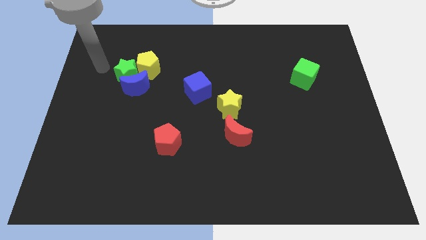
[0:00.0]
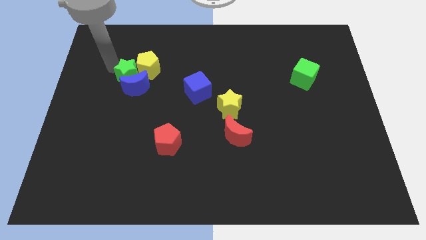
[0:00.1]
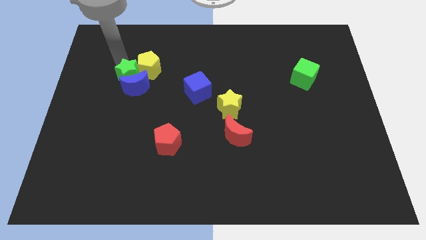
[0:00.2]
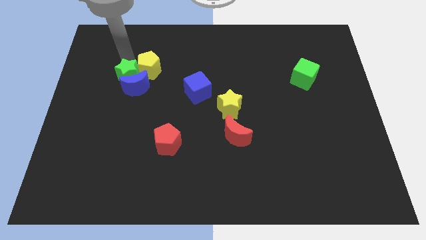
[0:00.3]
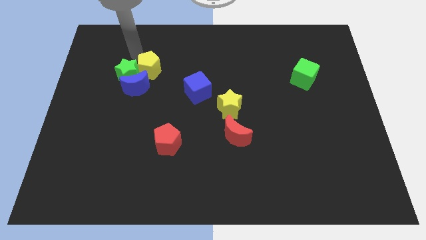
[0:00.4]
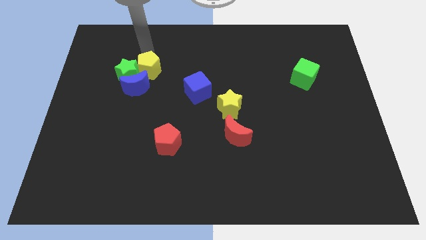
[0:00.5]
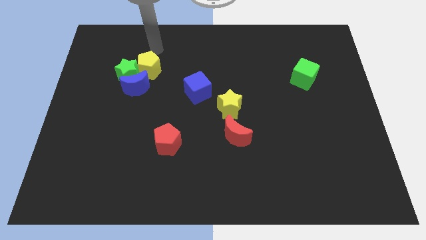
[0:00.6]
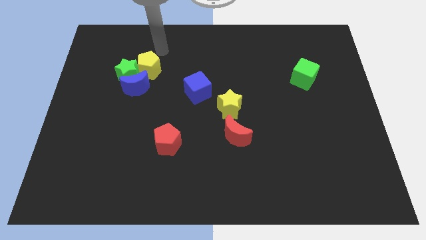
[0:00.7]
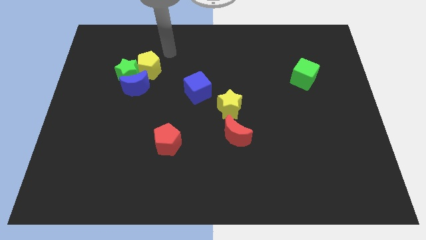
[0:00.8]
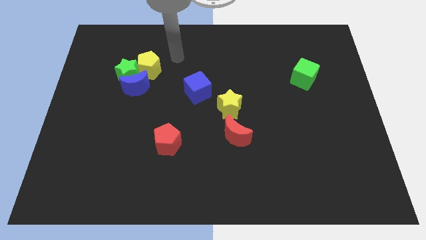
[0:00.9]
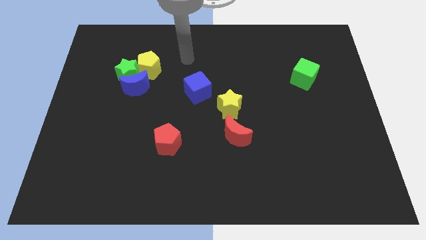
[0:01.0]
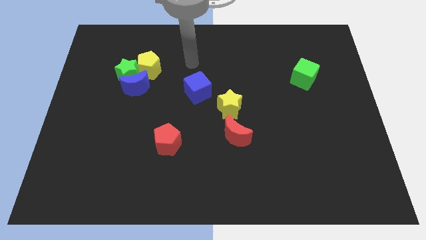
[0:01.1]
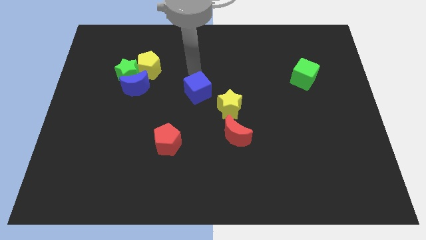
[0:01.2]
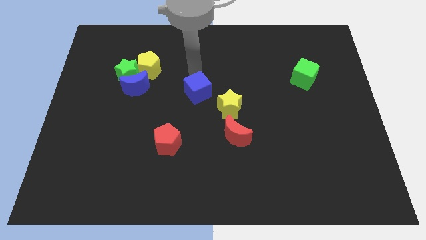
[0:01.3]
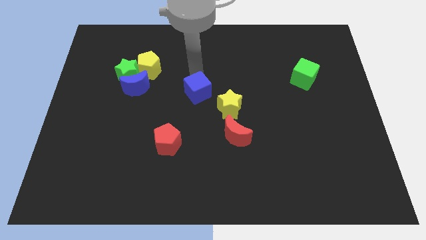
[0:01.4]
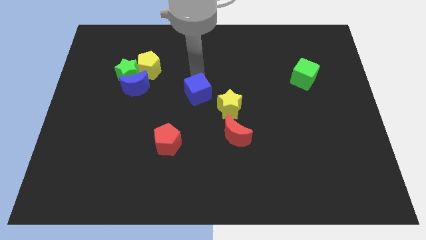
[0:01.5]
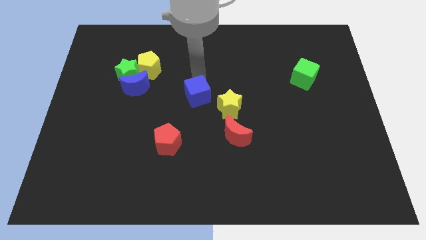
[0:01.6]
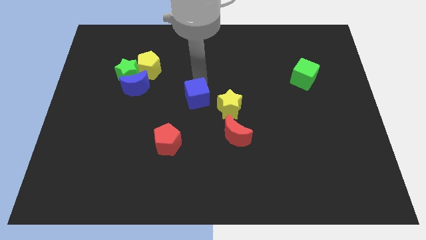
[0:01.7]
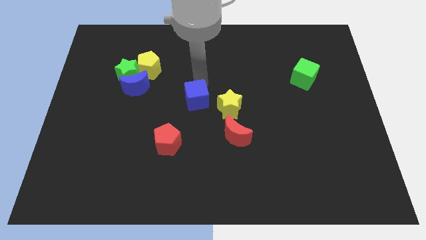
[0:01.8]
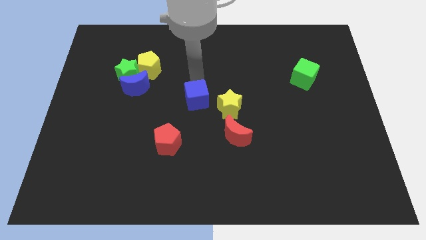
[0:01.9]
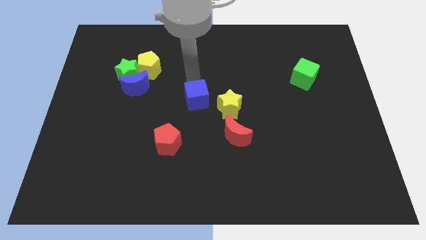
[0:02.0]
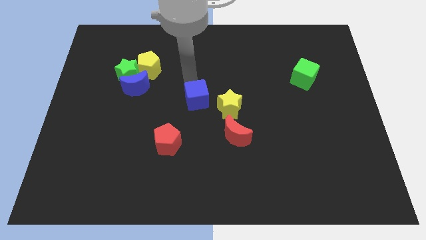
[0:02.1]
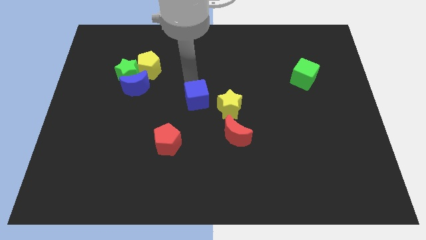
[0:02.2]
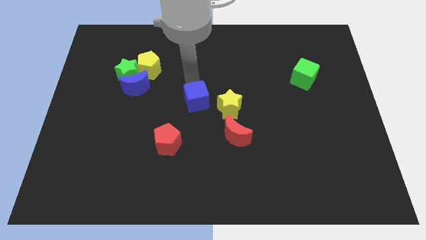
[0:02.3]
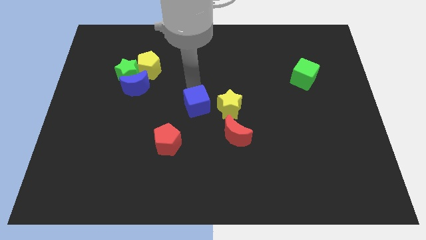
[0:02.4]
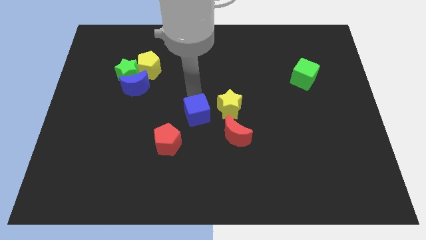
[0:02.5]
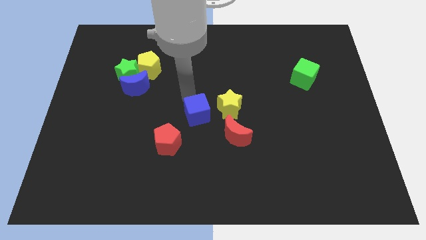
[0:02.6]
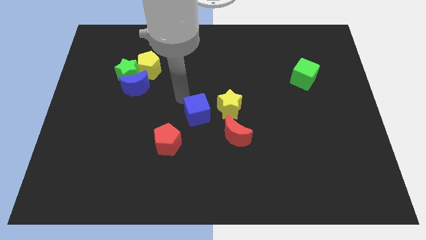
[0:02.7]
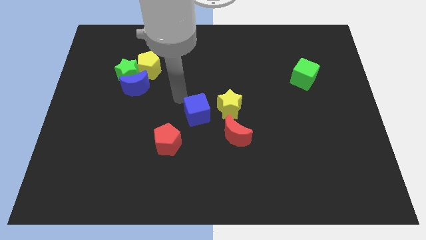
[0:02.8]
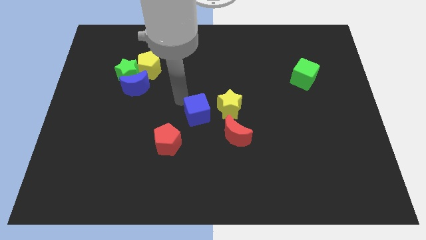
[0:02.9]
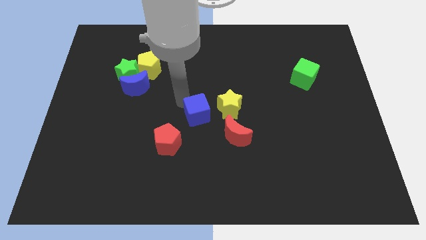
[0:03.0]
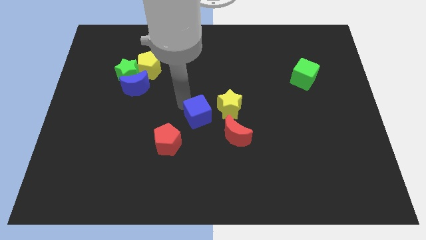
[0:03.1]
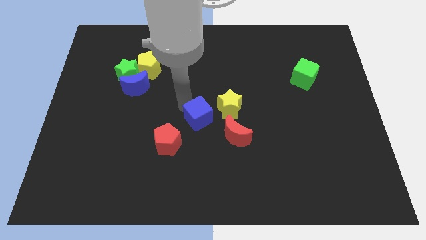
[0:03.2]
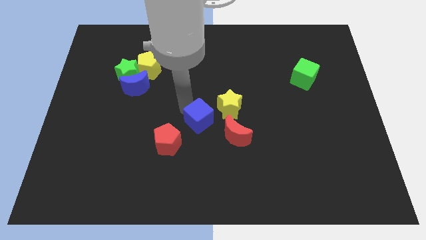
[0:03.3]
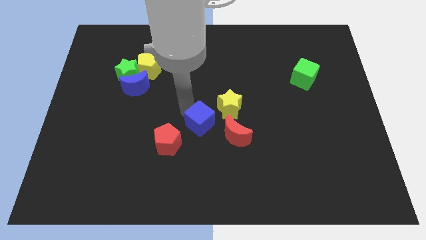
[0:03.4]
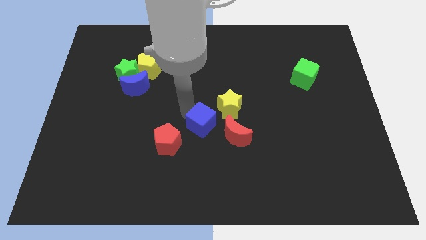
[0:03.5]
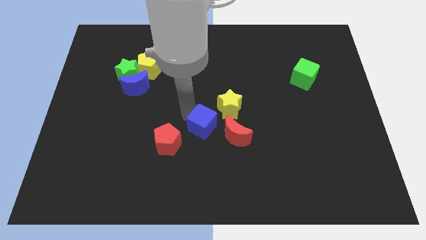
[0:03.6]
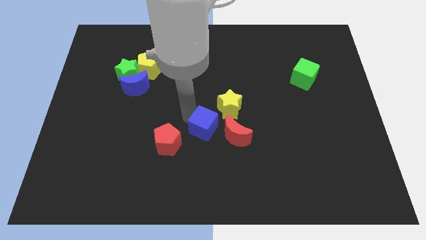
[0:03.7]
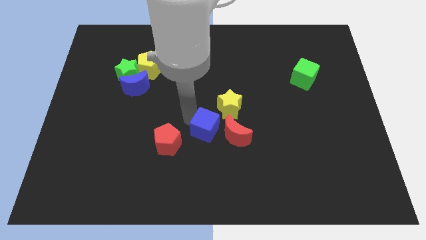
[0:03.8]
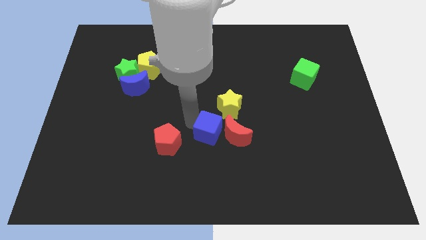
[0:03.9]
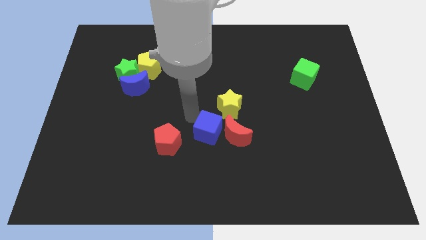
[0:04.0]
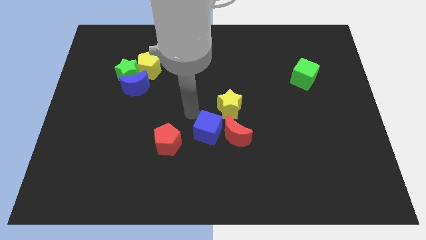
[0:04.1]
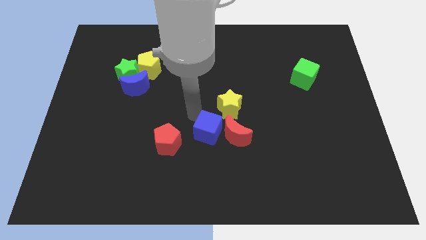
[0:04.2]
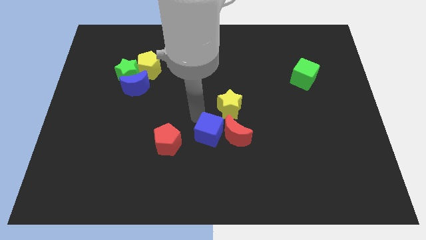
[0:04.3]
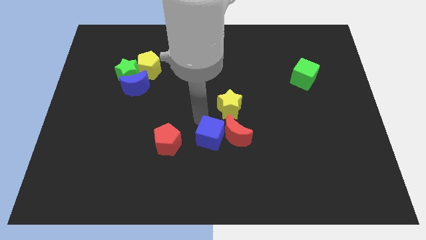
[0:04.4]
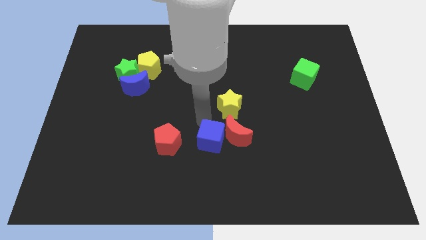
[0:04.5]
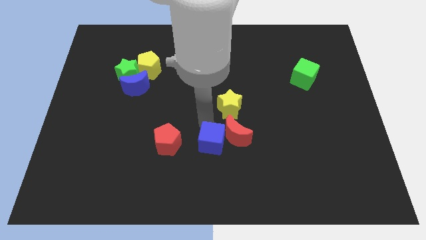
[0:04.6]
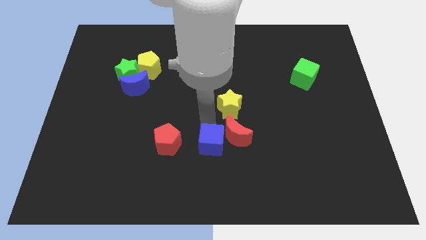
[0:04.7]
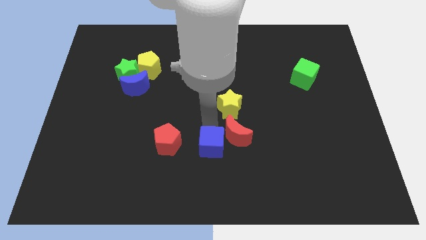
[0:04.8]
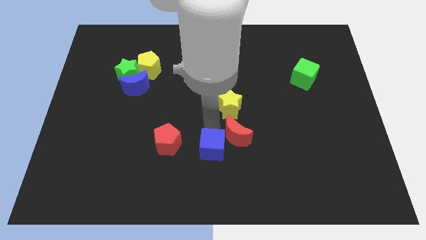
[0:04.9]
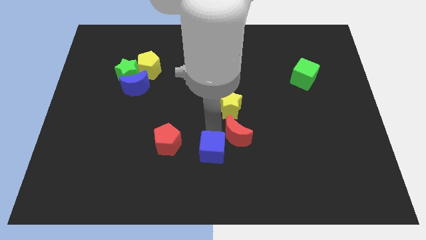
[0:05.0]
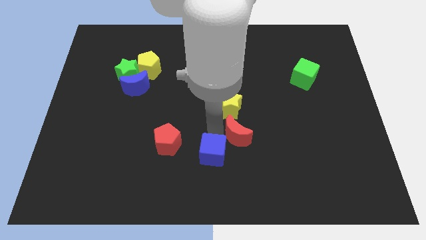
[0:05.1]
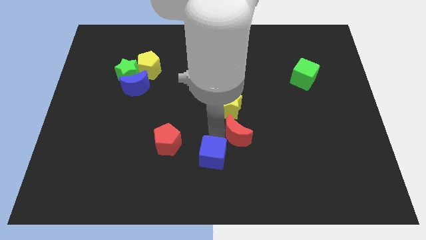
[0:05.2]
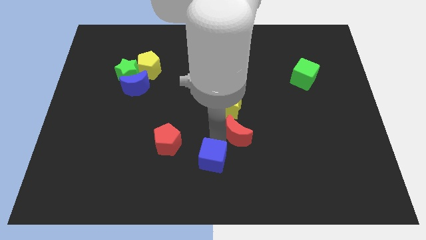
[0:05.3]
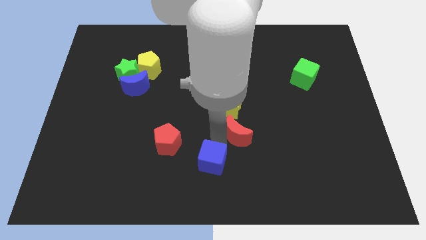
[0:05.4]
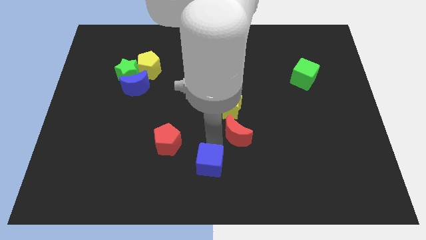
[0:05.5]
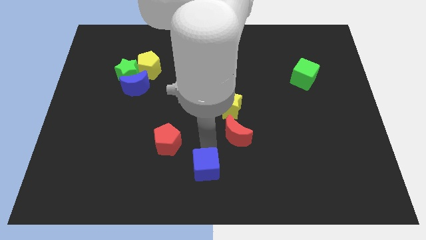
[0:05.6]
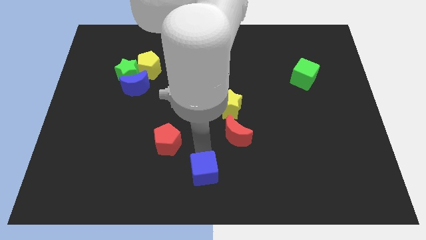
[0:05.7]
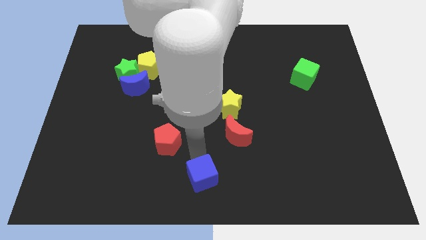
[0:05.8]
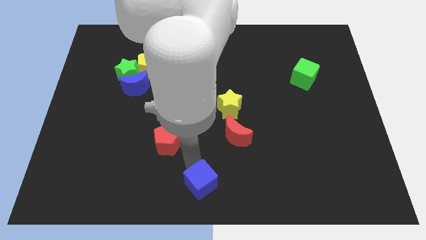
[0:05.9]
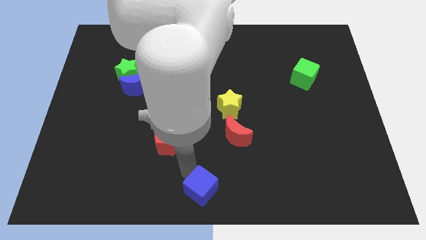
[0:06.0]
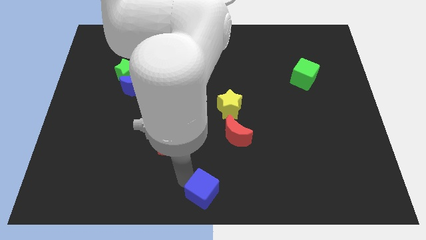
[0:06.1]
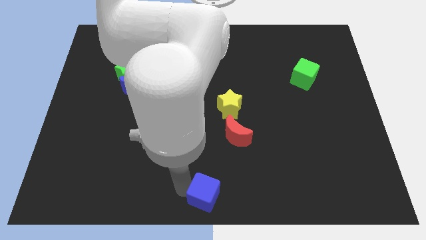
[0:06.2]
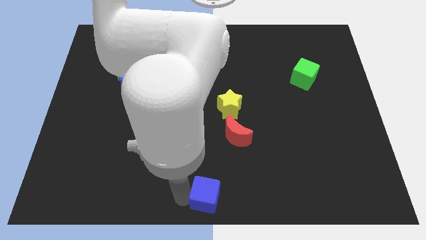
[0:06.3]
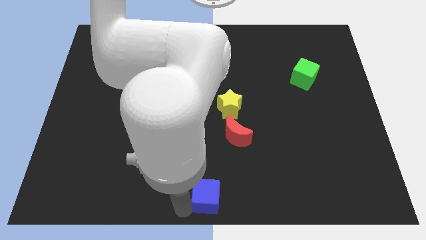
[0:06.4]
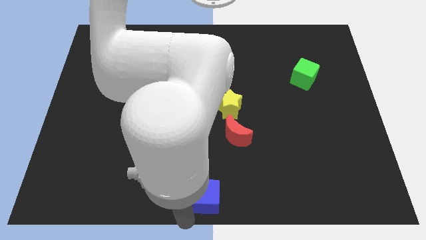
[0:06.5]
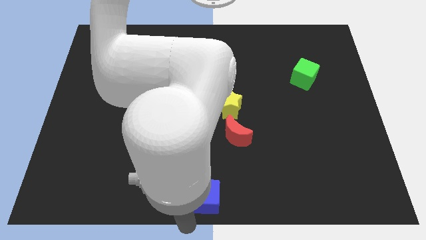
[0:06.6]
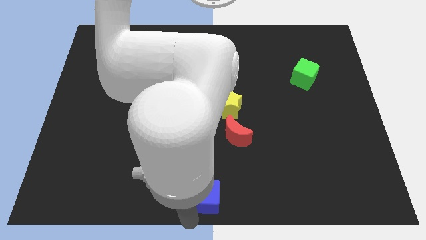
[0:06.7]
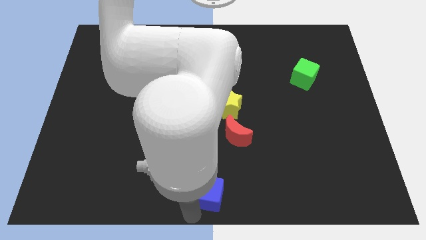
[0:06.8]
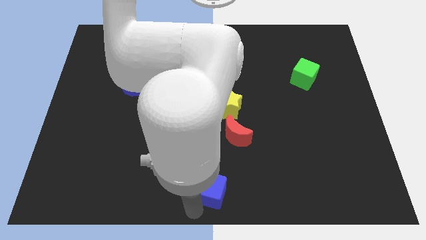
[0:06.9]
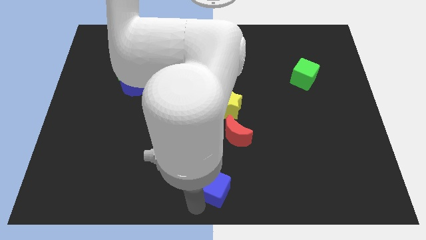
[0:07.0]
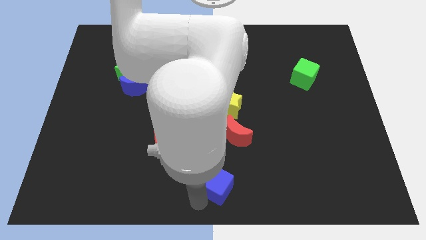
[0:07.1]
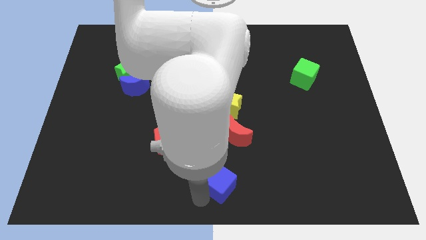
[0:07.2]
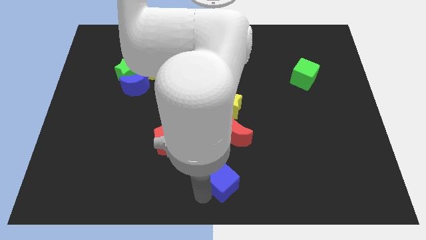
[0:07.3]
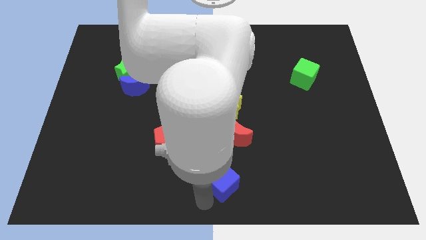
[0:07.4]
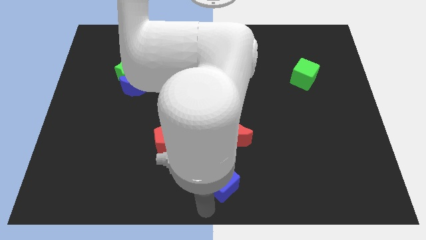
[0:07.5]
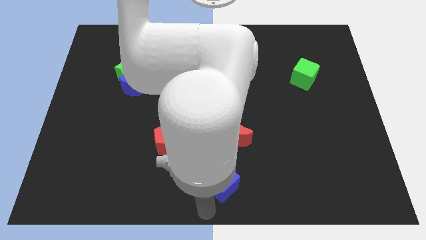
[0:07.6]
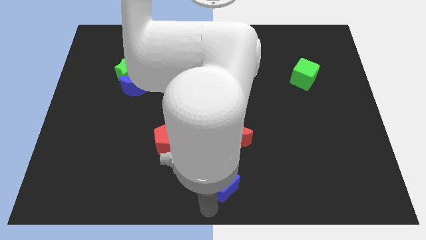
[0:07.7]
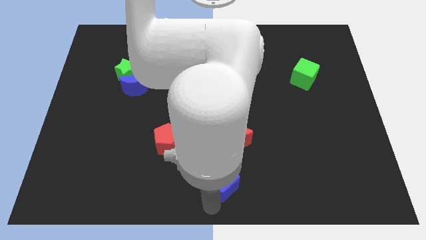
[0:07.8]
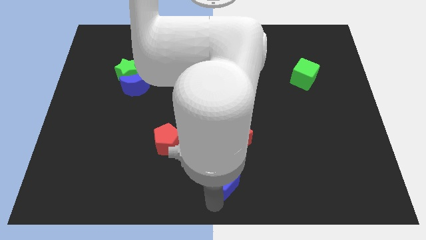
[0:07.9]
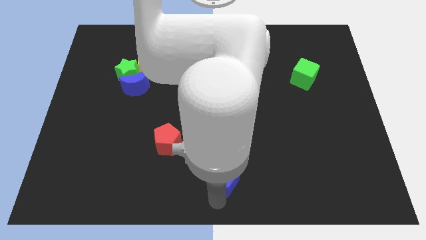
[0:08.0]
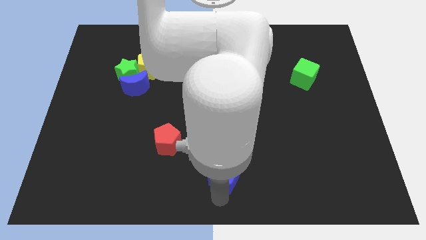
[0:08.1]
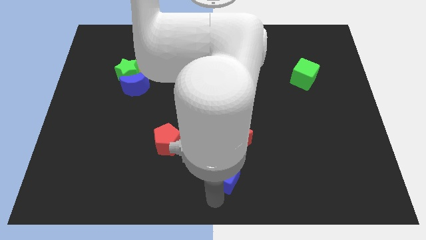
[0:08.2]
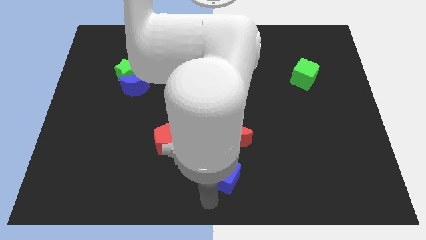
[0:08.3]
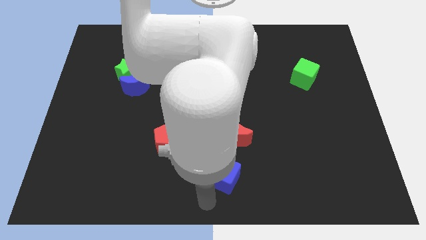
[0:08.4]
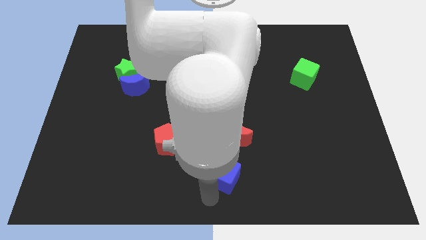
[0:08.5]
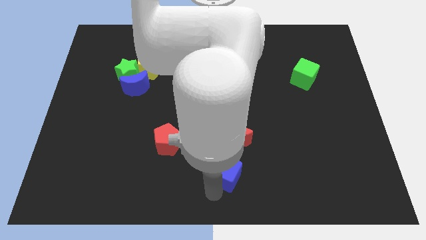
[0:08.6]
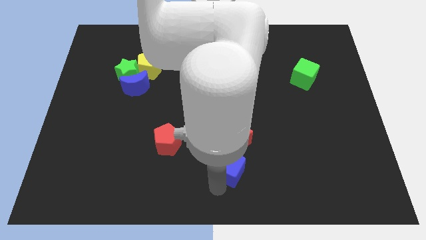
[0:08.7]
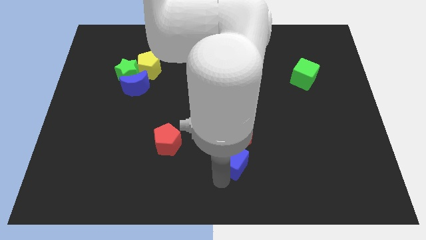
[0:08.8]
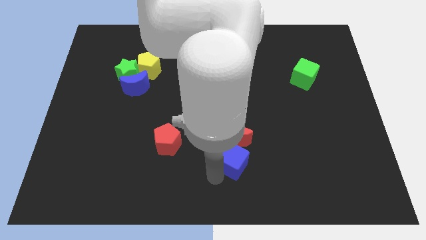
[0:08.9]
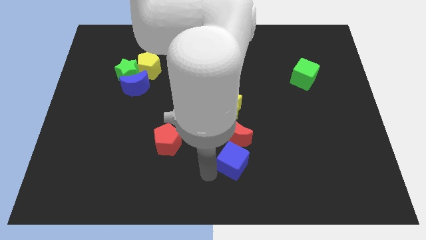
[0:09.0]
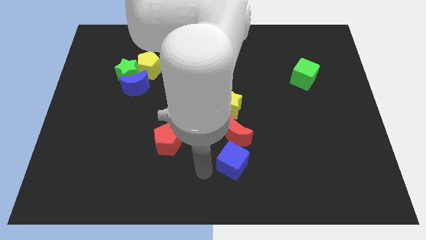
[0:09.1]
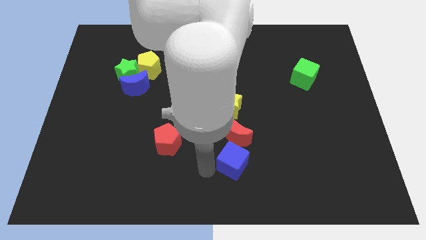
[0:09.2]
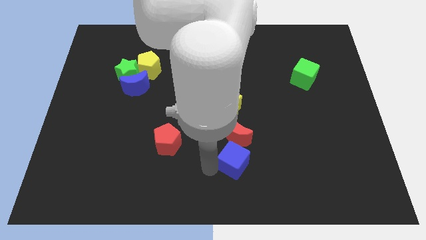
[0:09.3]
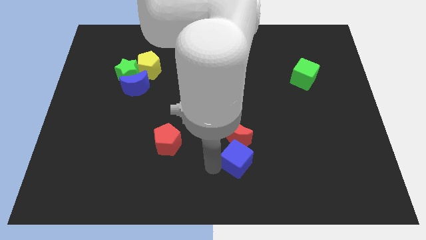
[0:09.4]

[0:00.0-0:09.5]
push the blue cube to the bottom right of the red moon
